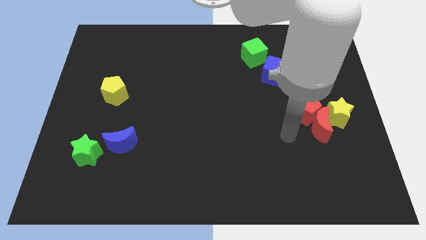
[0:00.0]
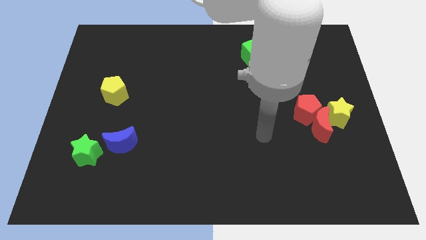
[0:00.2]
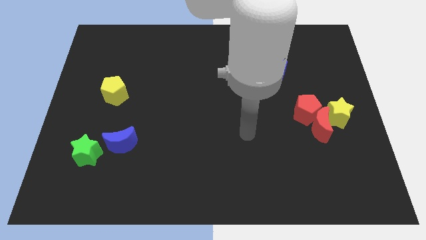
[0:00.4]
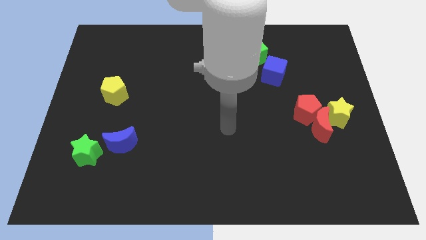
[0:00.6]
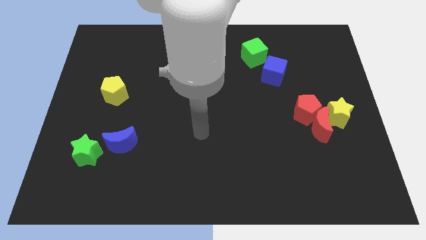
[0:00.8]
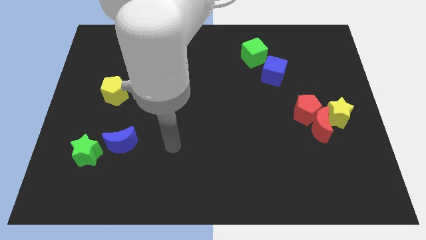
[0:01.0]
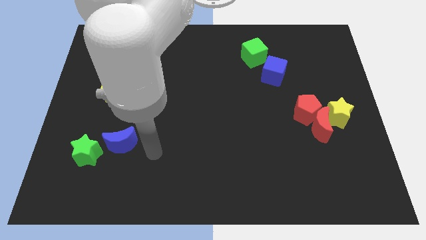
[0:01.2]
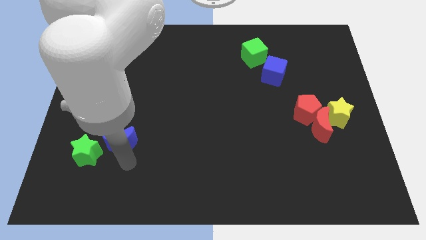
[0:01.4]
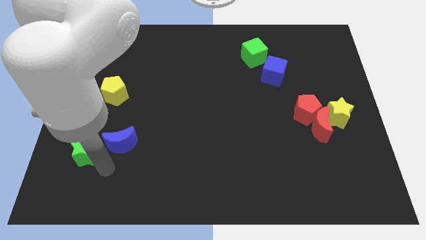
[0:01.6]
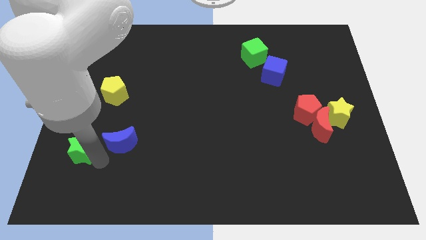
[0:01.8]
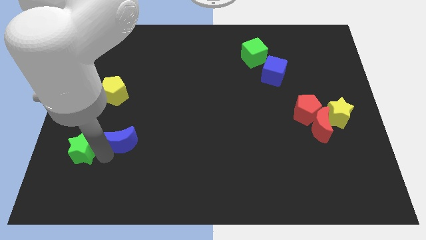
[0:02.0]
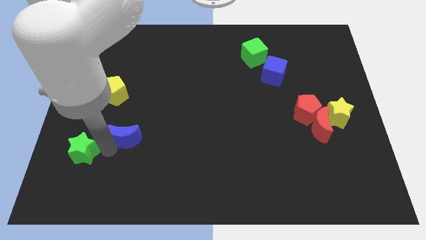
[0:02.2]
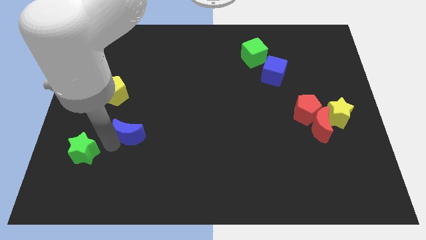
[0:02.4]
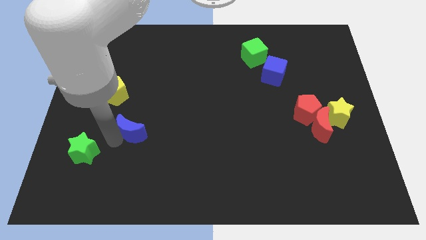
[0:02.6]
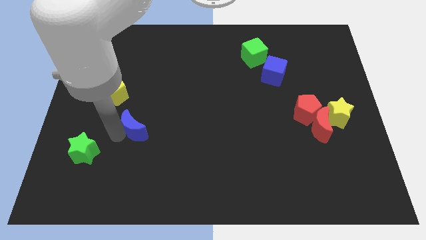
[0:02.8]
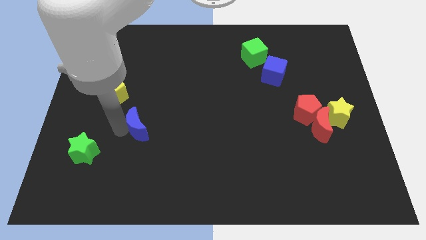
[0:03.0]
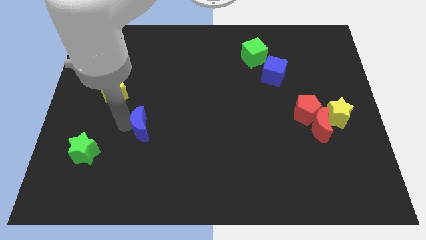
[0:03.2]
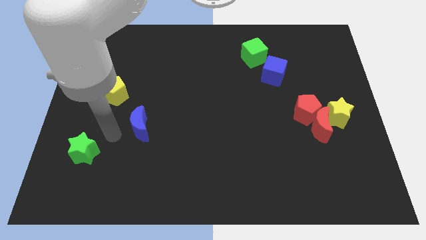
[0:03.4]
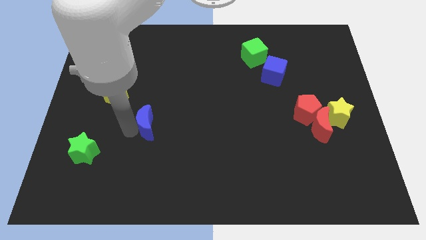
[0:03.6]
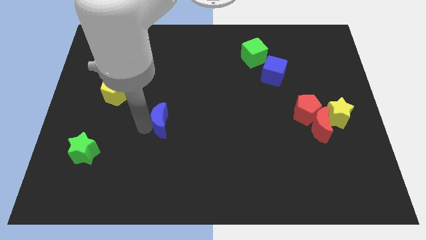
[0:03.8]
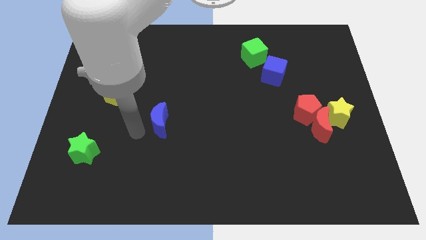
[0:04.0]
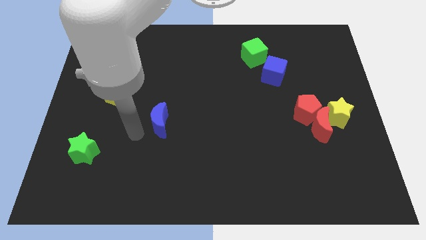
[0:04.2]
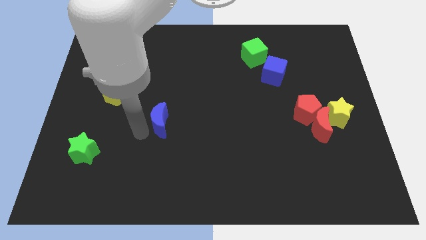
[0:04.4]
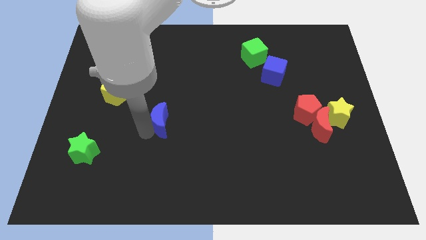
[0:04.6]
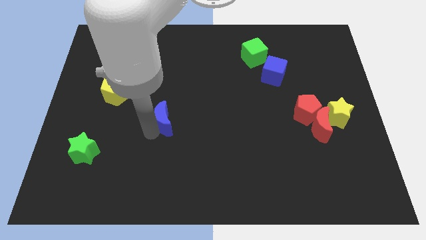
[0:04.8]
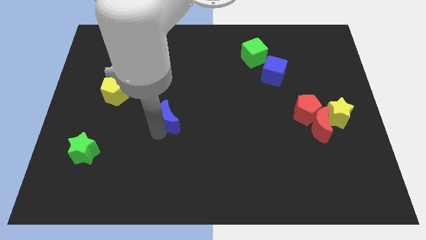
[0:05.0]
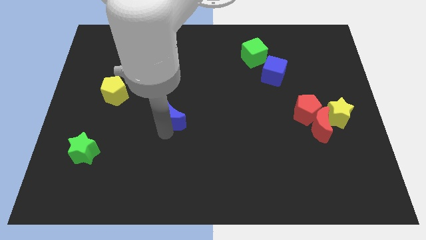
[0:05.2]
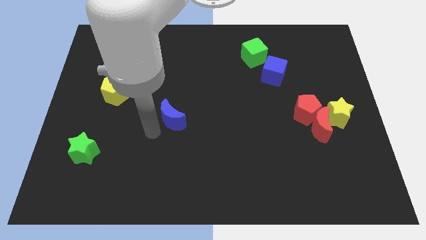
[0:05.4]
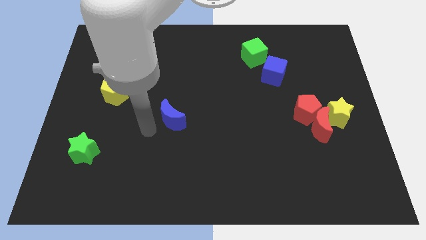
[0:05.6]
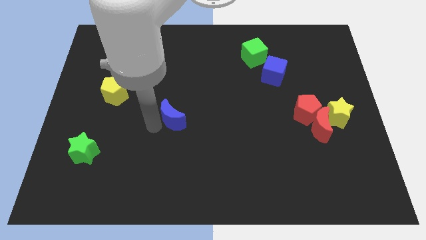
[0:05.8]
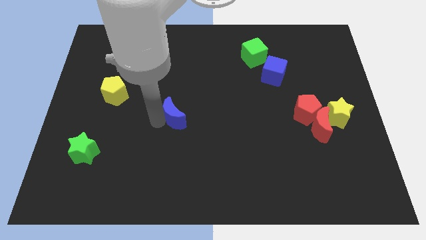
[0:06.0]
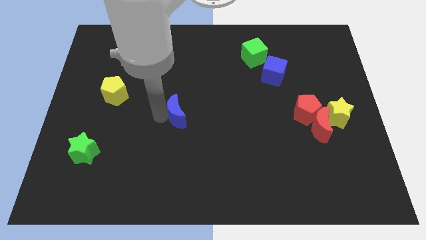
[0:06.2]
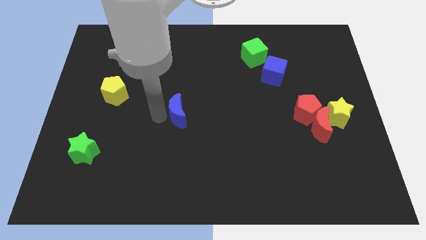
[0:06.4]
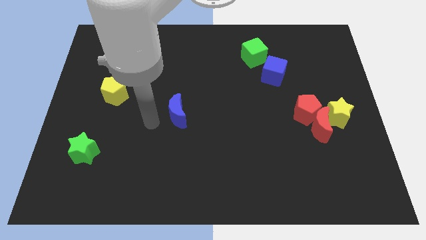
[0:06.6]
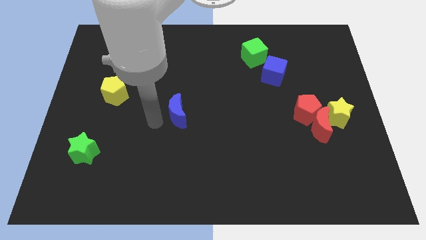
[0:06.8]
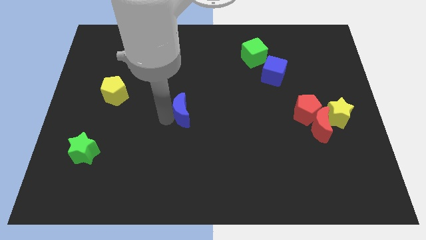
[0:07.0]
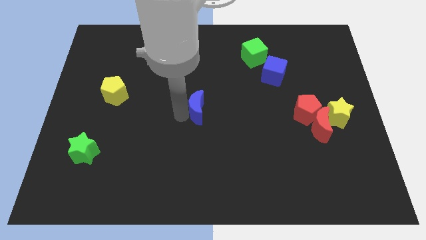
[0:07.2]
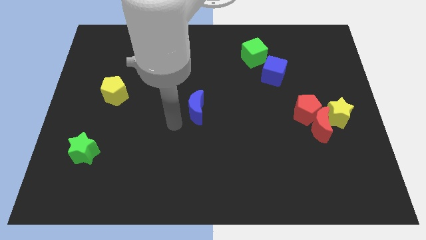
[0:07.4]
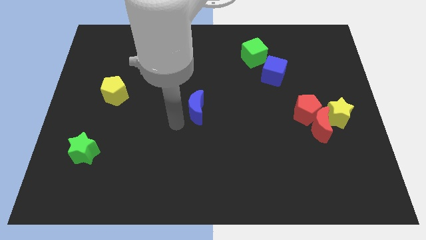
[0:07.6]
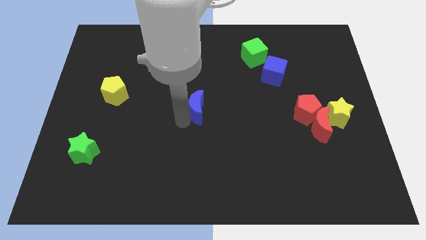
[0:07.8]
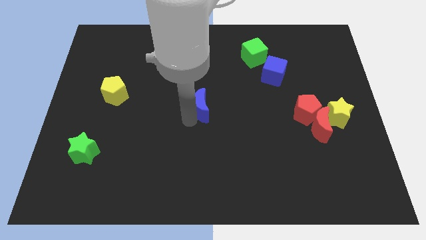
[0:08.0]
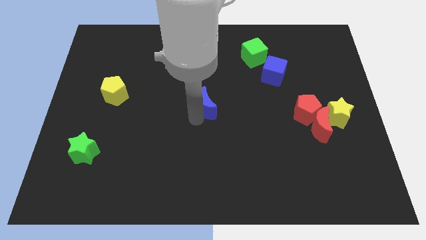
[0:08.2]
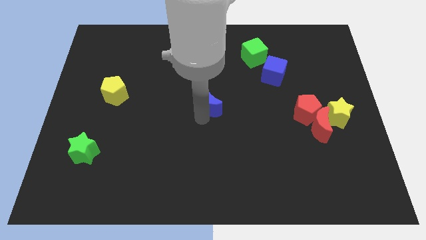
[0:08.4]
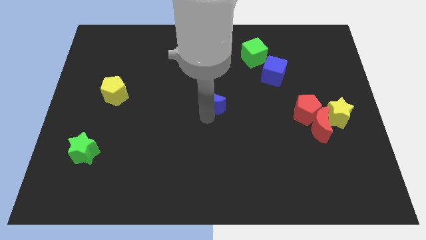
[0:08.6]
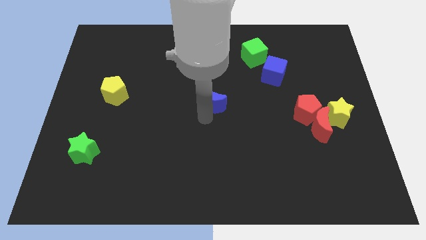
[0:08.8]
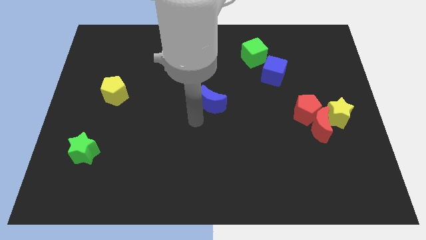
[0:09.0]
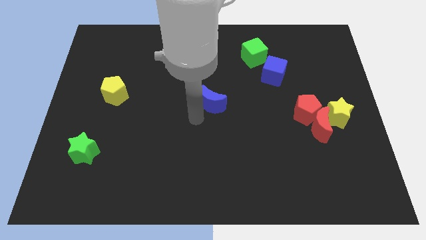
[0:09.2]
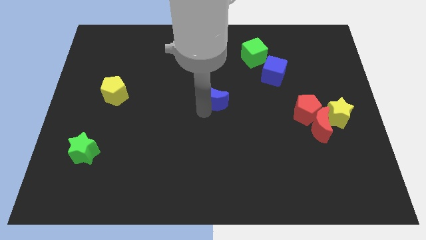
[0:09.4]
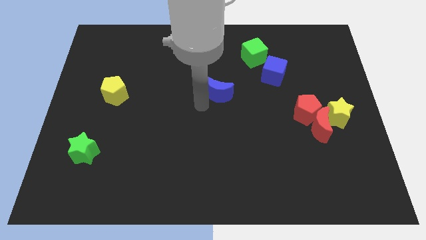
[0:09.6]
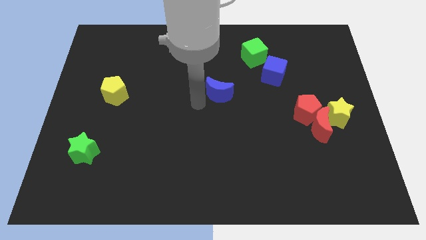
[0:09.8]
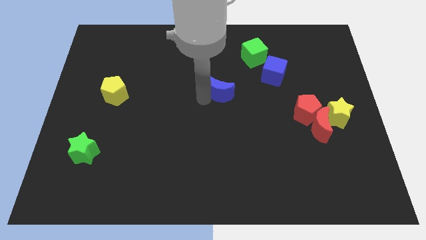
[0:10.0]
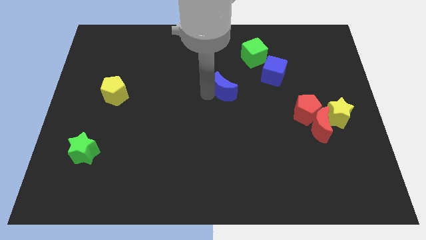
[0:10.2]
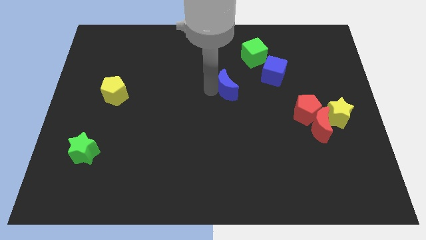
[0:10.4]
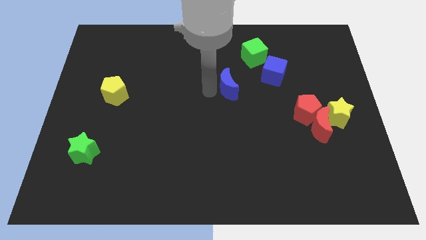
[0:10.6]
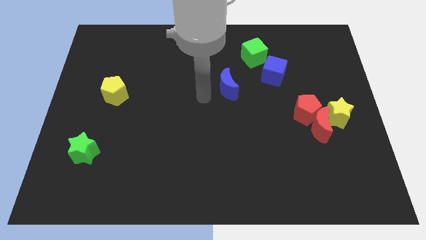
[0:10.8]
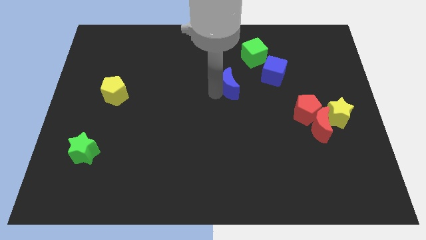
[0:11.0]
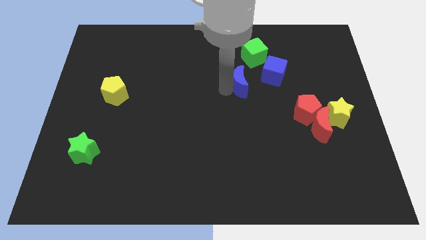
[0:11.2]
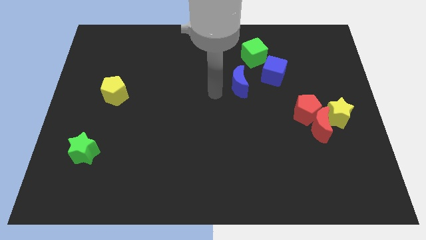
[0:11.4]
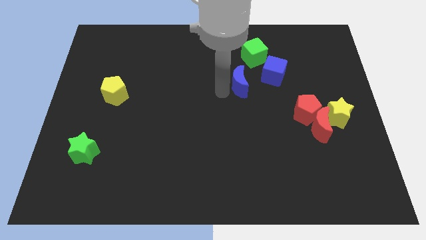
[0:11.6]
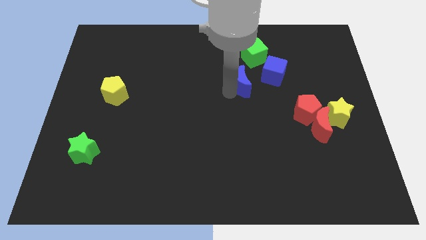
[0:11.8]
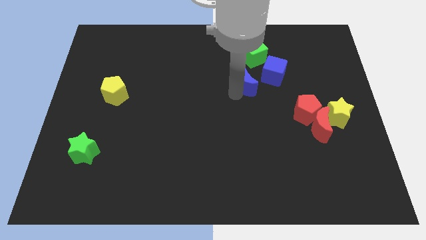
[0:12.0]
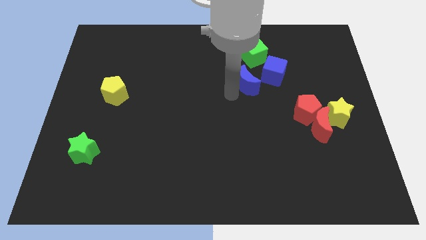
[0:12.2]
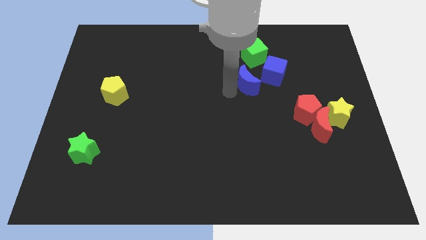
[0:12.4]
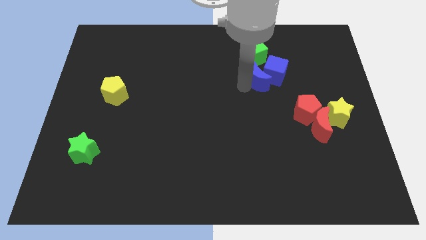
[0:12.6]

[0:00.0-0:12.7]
move the blue moon to the blue cube

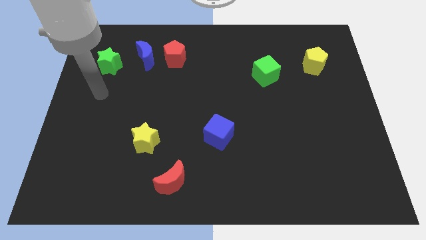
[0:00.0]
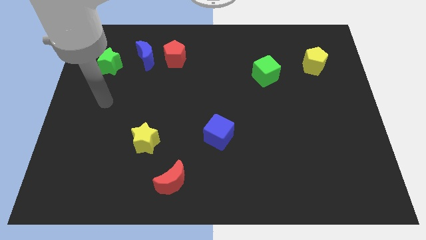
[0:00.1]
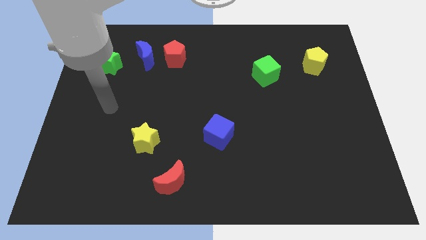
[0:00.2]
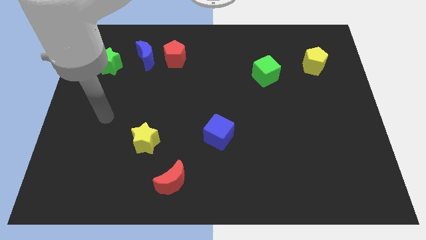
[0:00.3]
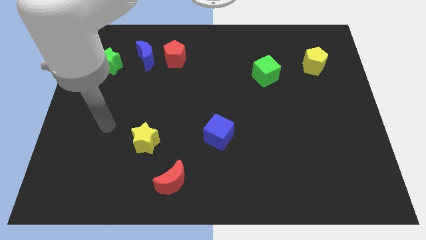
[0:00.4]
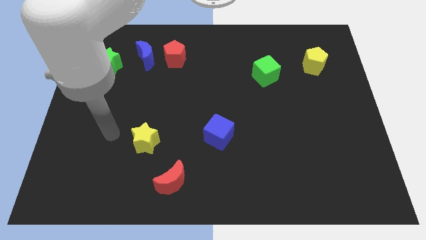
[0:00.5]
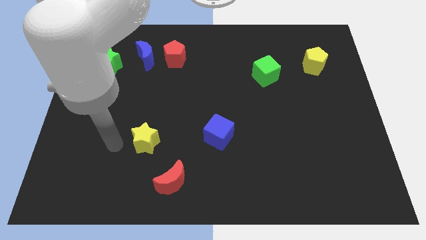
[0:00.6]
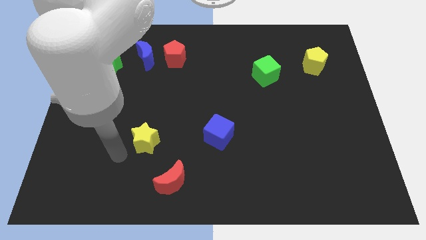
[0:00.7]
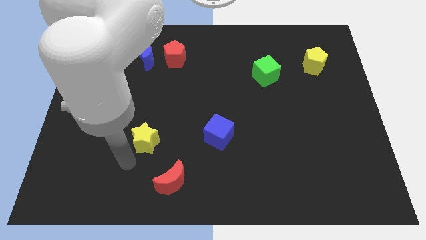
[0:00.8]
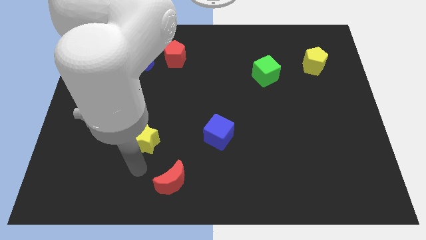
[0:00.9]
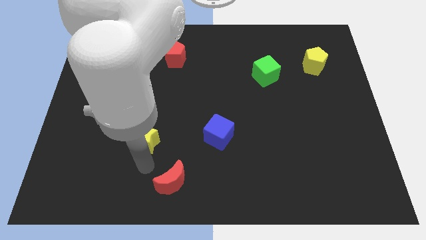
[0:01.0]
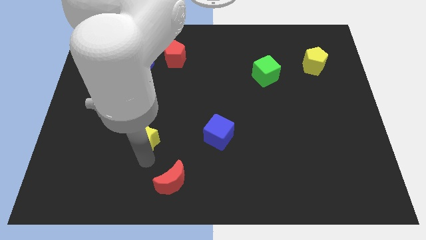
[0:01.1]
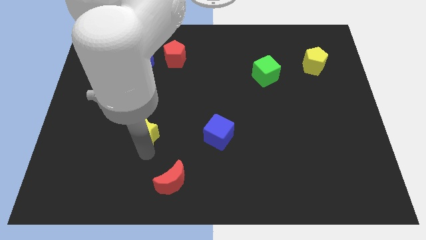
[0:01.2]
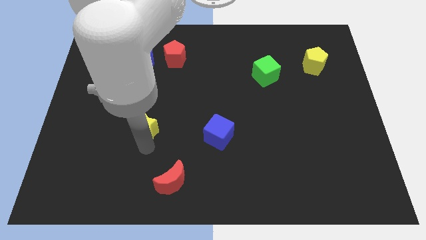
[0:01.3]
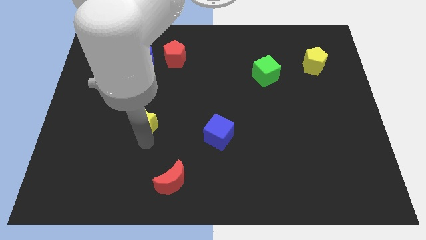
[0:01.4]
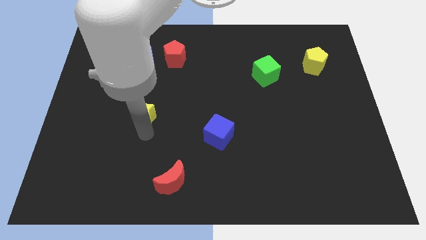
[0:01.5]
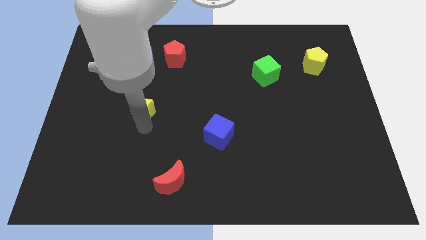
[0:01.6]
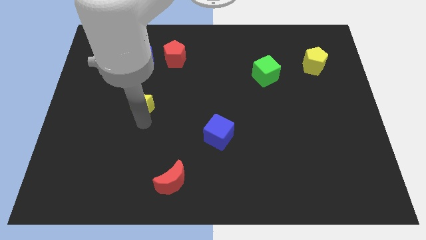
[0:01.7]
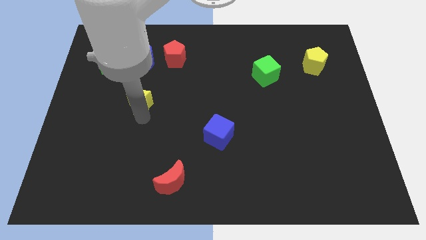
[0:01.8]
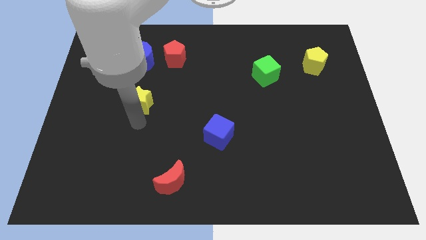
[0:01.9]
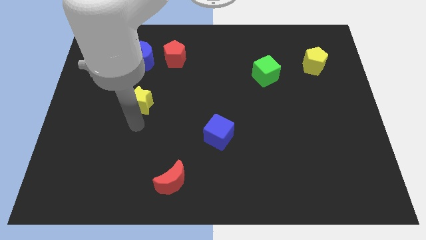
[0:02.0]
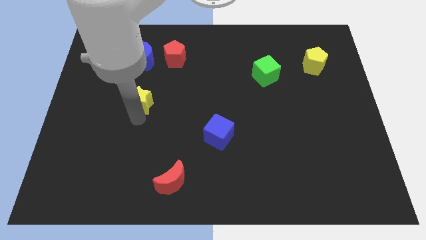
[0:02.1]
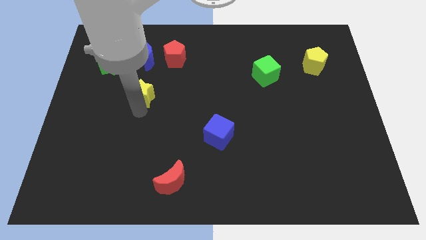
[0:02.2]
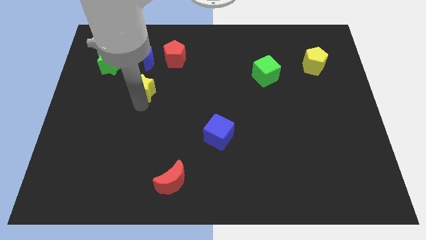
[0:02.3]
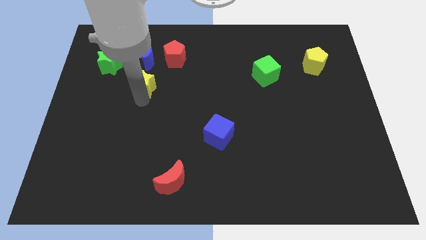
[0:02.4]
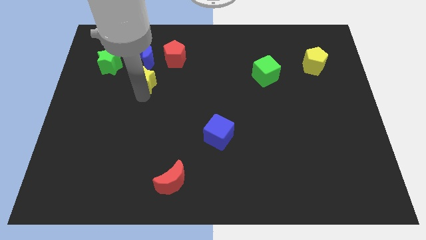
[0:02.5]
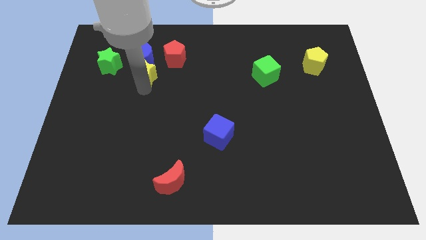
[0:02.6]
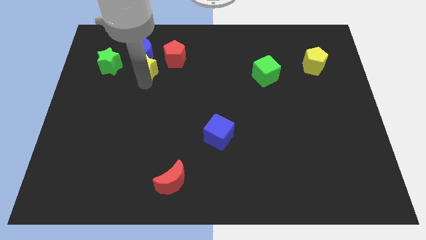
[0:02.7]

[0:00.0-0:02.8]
slide the yellow star close to the blue moon
